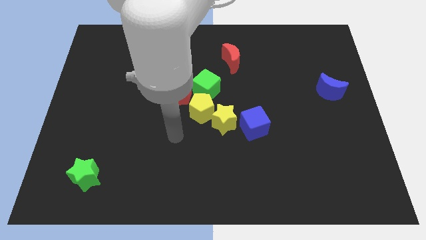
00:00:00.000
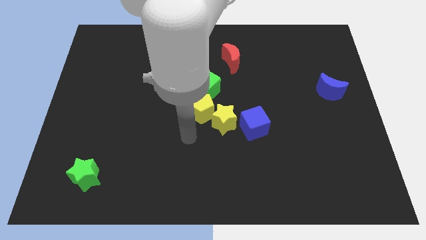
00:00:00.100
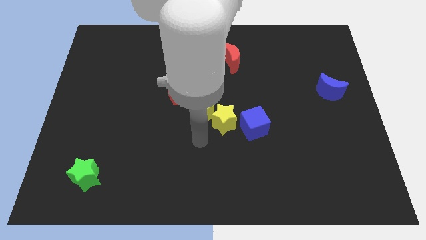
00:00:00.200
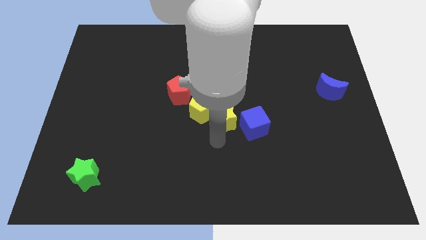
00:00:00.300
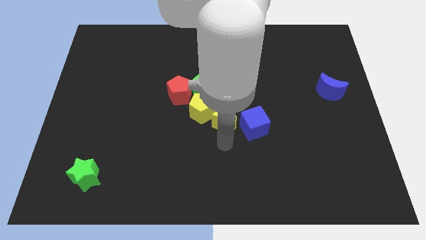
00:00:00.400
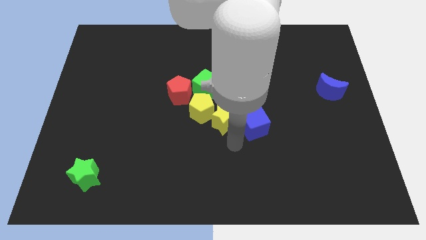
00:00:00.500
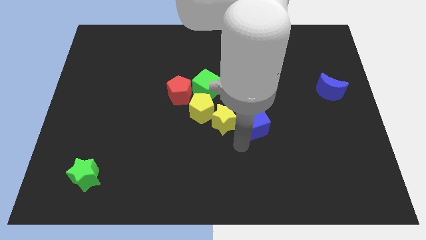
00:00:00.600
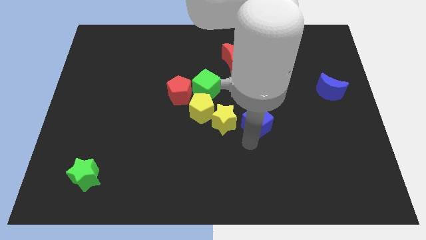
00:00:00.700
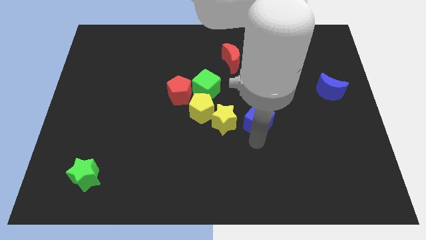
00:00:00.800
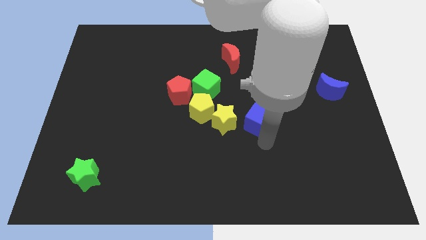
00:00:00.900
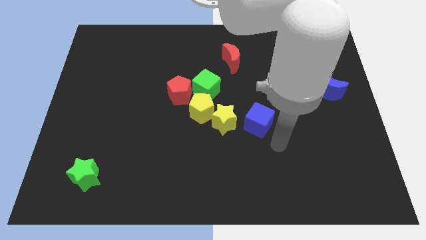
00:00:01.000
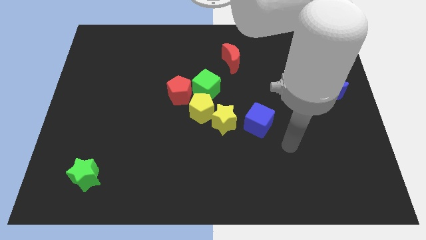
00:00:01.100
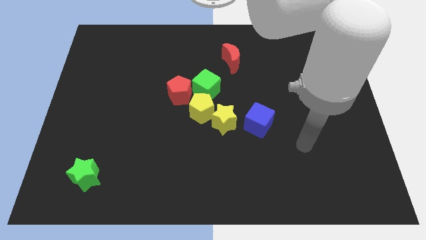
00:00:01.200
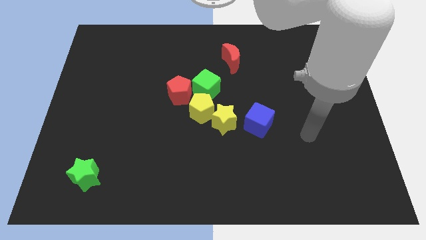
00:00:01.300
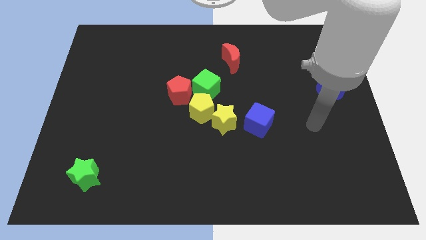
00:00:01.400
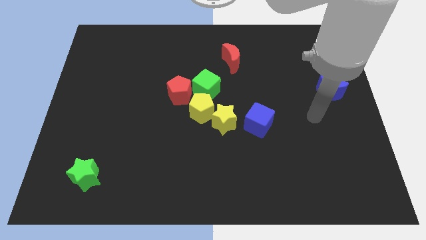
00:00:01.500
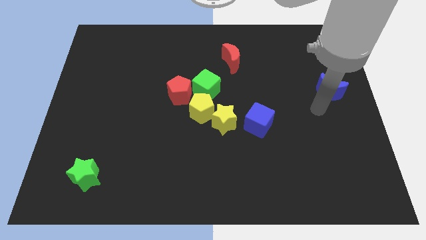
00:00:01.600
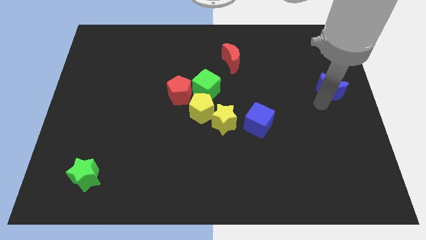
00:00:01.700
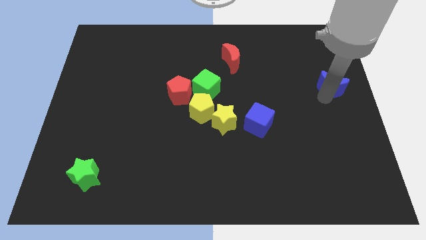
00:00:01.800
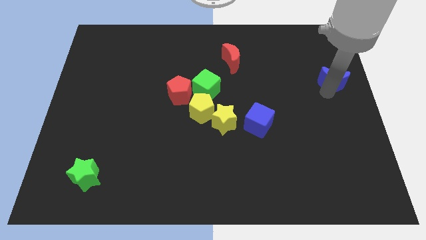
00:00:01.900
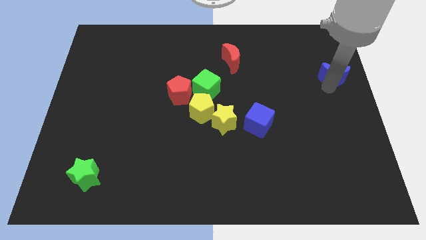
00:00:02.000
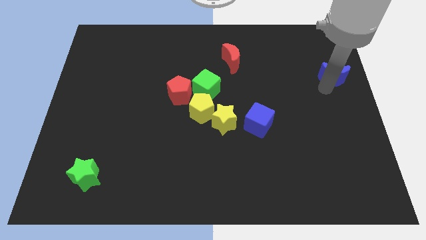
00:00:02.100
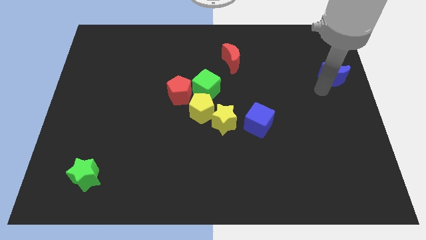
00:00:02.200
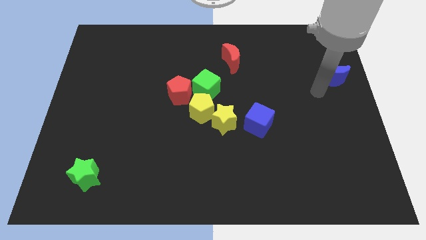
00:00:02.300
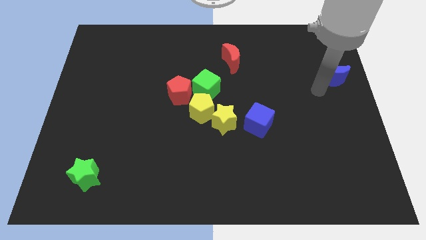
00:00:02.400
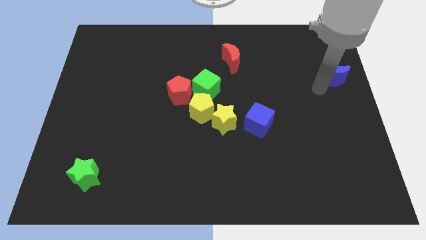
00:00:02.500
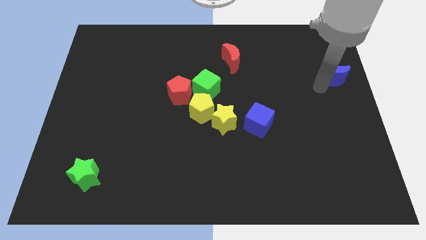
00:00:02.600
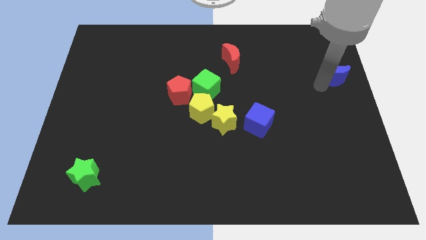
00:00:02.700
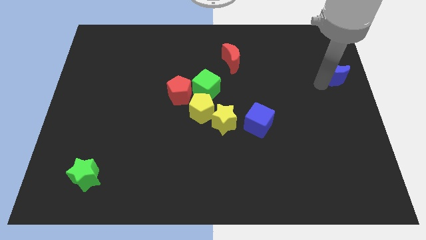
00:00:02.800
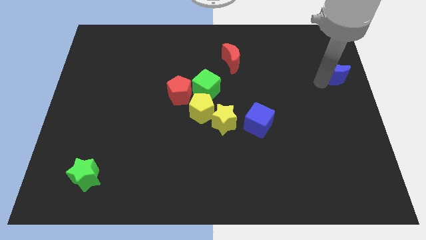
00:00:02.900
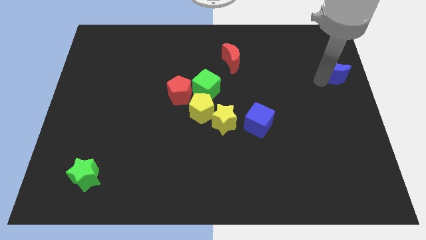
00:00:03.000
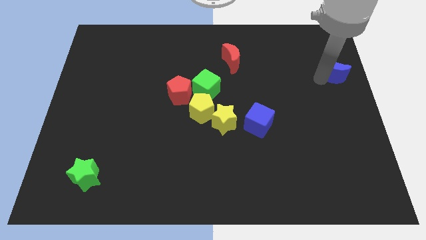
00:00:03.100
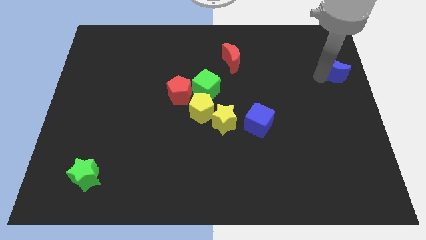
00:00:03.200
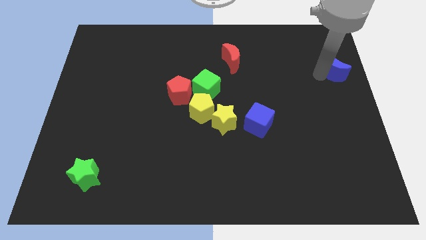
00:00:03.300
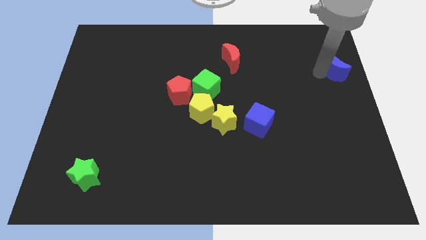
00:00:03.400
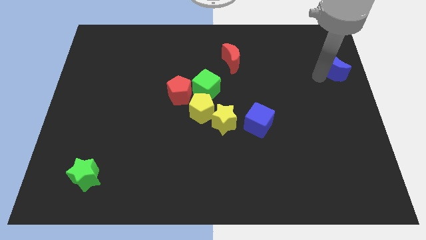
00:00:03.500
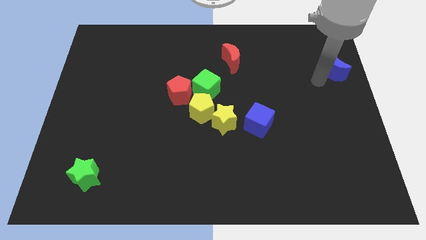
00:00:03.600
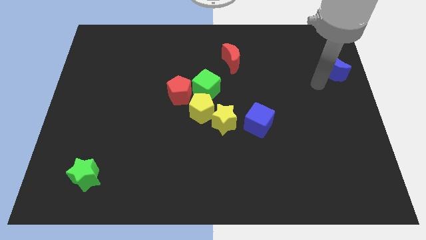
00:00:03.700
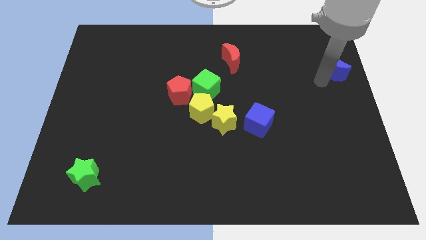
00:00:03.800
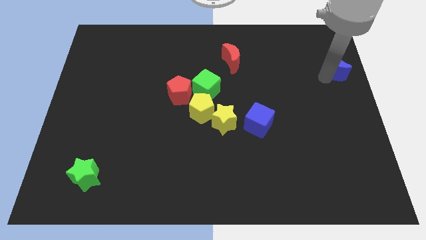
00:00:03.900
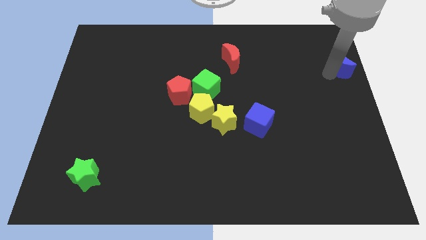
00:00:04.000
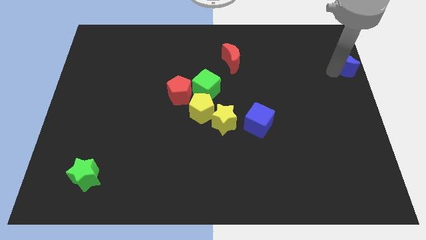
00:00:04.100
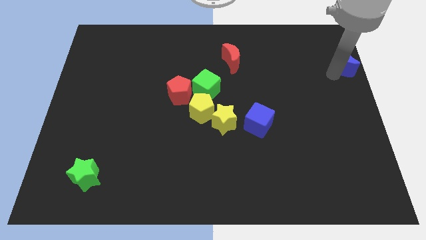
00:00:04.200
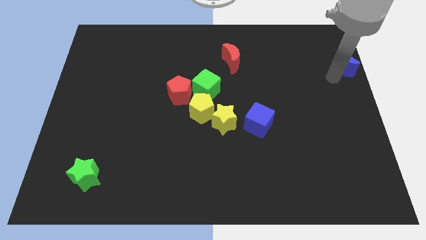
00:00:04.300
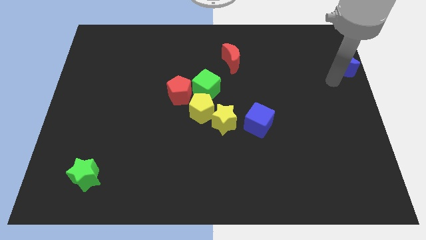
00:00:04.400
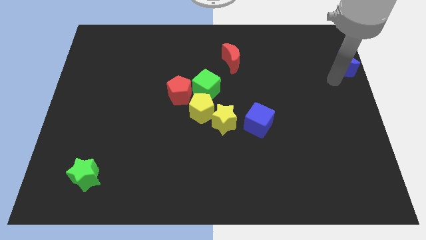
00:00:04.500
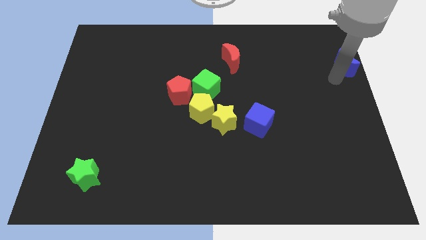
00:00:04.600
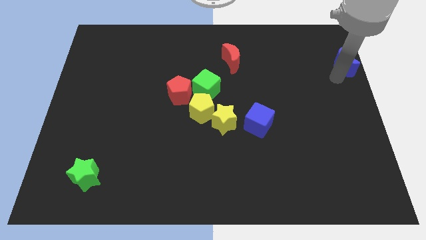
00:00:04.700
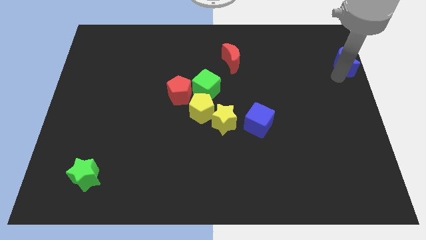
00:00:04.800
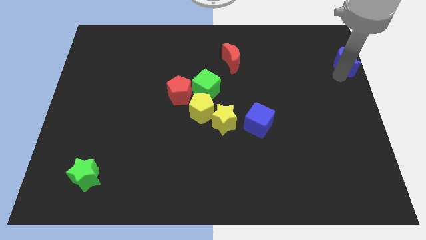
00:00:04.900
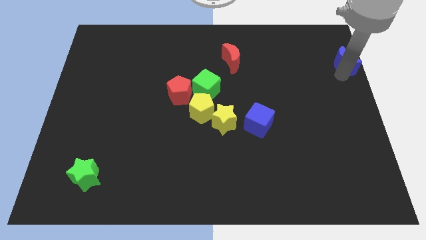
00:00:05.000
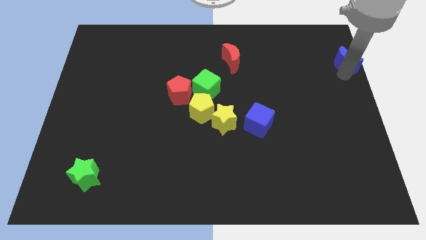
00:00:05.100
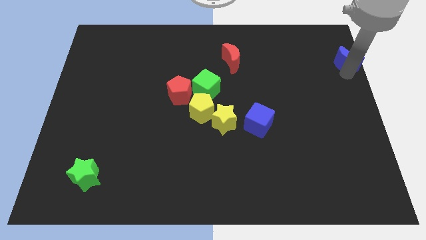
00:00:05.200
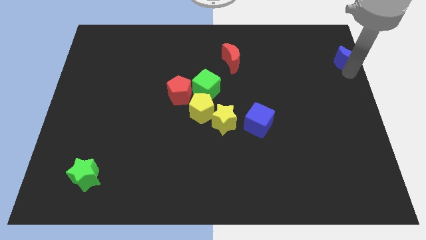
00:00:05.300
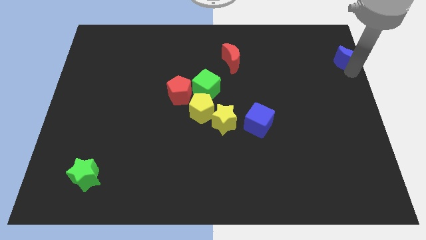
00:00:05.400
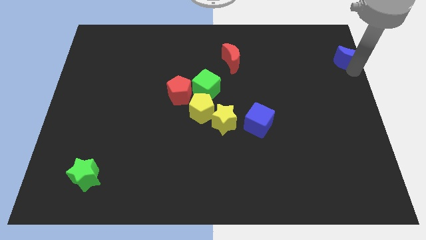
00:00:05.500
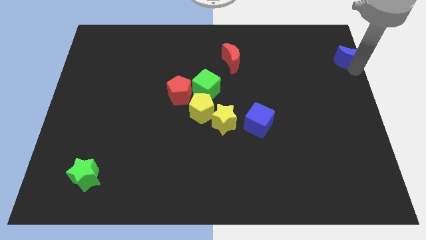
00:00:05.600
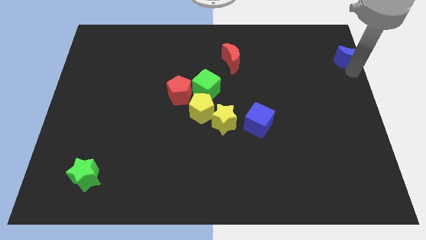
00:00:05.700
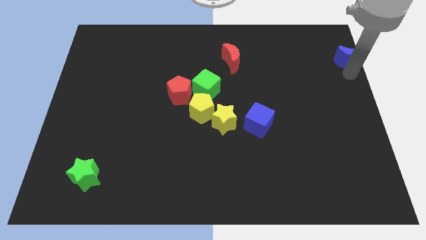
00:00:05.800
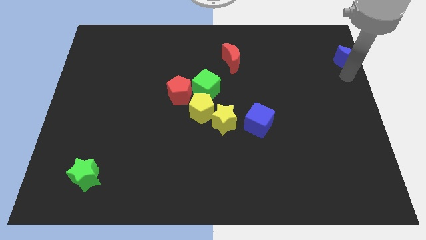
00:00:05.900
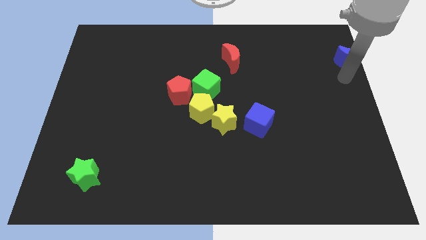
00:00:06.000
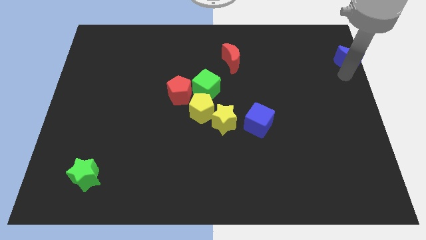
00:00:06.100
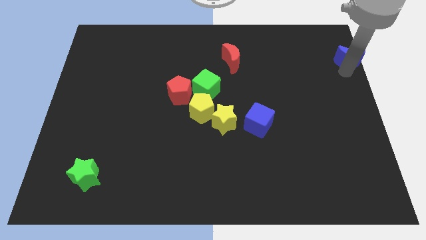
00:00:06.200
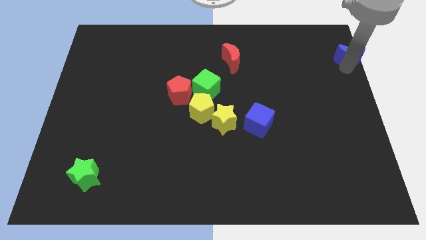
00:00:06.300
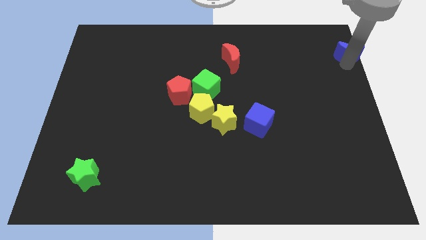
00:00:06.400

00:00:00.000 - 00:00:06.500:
slide the blue moon to the top right of the board
